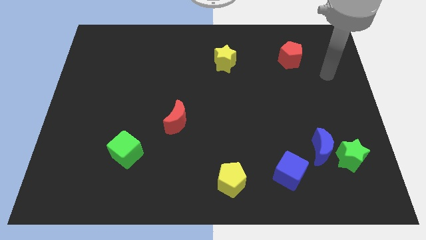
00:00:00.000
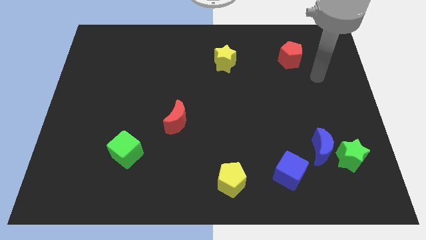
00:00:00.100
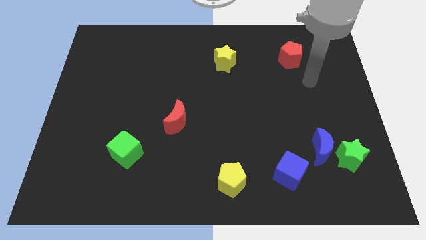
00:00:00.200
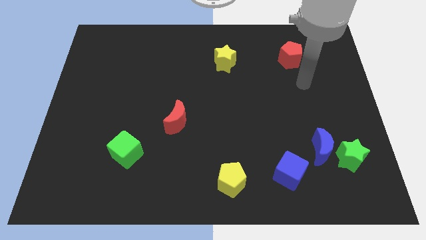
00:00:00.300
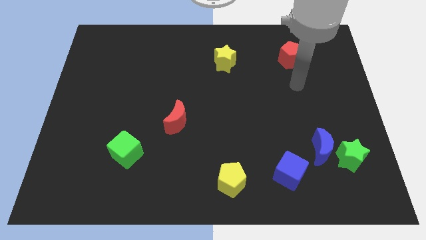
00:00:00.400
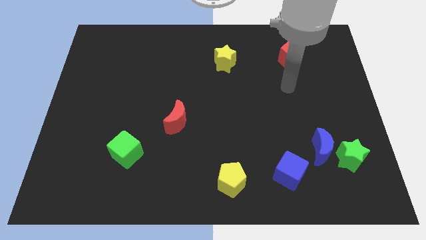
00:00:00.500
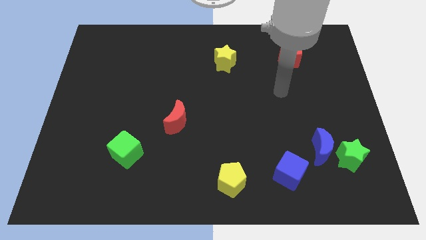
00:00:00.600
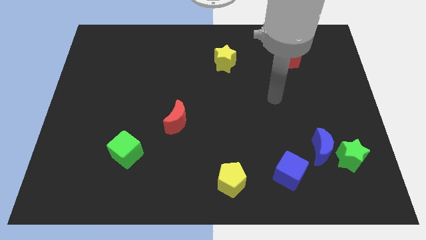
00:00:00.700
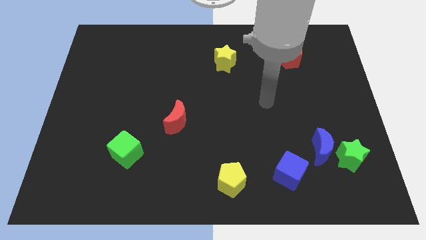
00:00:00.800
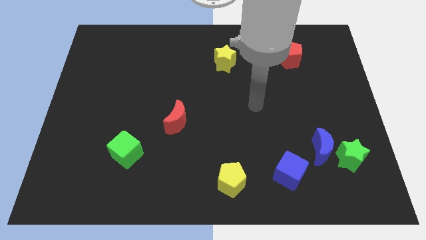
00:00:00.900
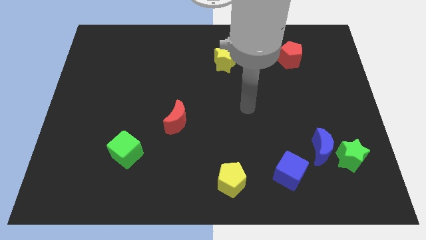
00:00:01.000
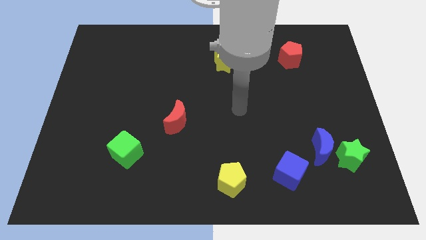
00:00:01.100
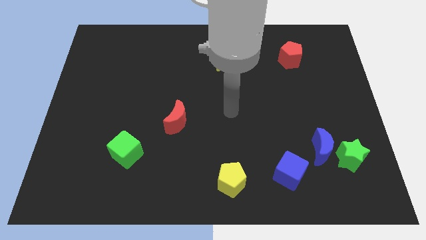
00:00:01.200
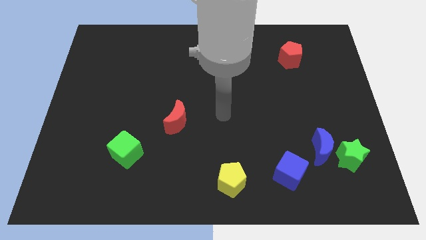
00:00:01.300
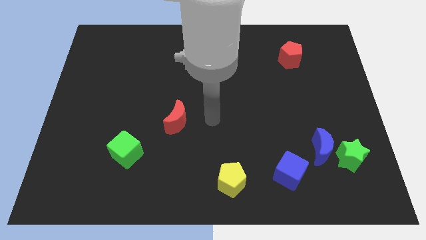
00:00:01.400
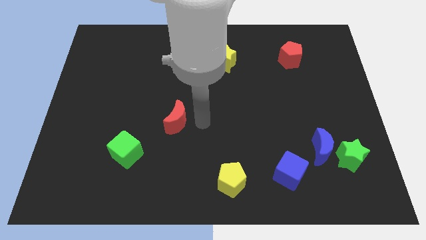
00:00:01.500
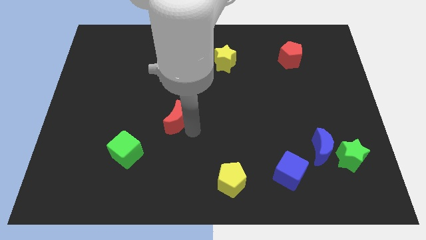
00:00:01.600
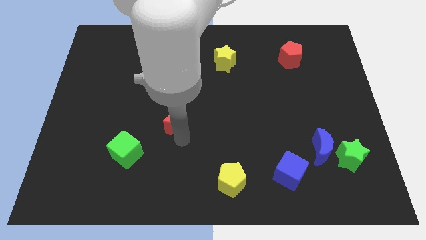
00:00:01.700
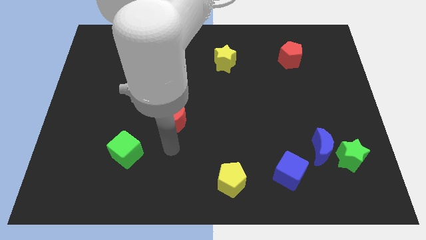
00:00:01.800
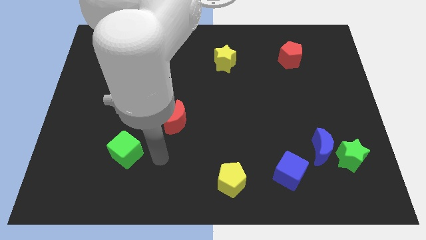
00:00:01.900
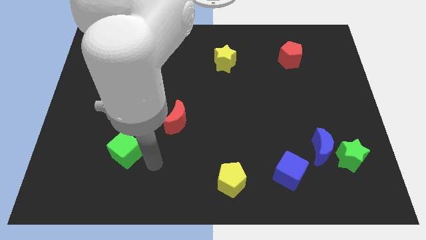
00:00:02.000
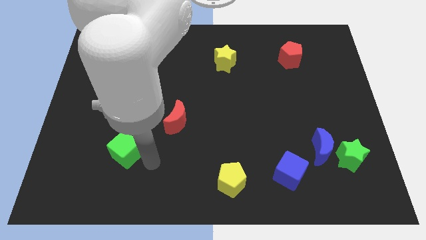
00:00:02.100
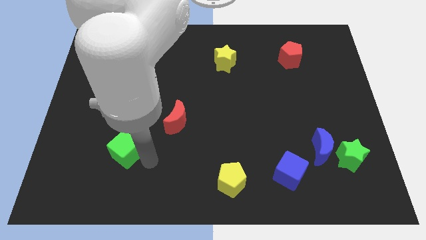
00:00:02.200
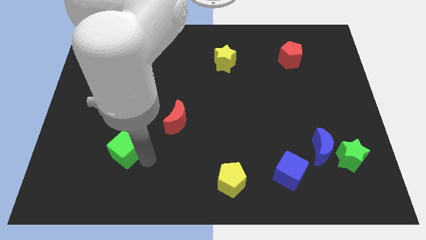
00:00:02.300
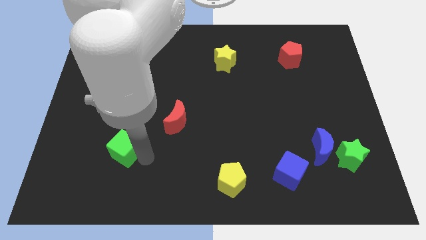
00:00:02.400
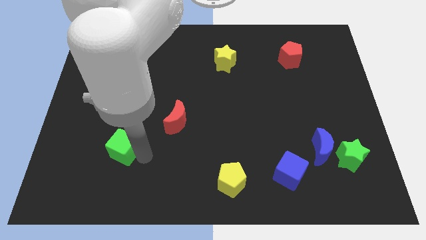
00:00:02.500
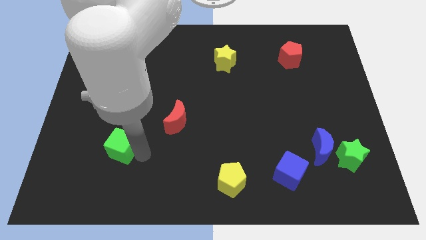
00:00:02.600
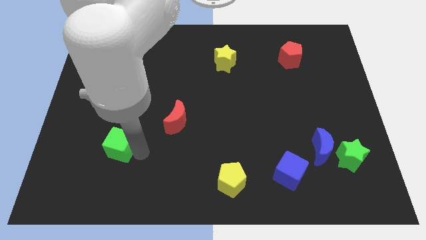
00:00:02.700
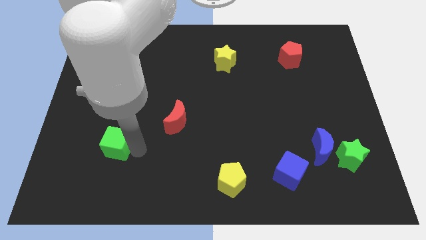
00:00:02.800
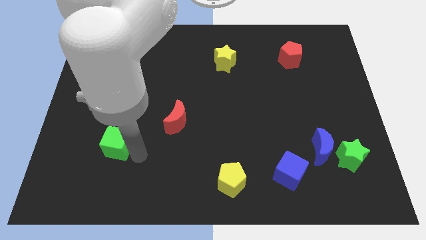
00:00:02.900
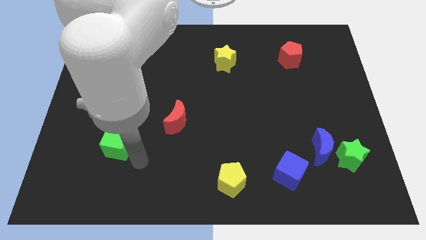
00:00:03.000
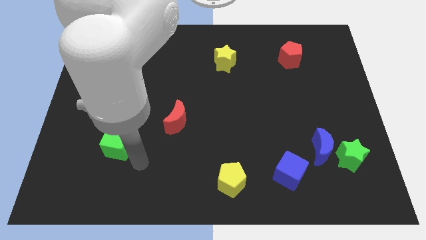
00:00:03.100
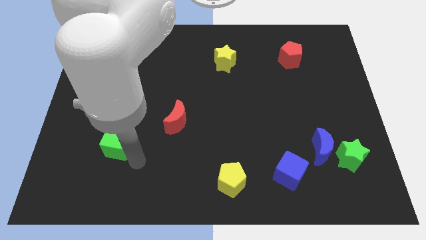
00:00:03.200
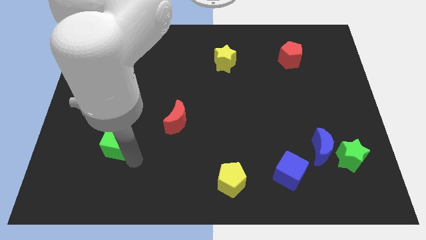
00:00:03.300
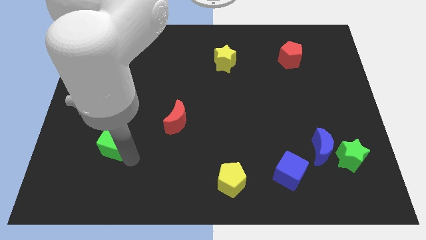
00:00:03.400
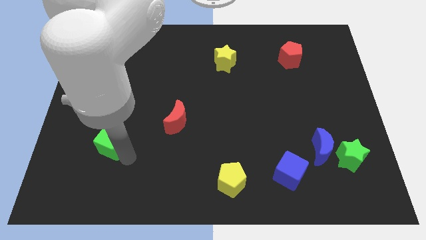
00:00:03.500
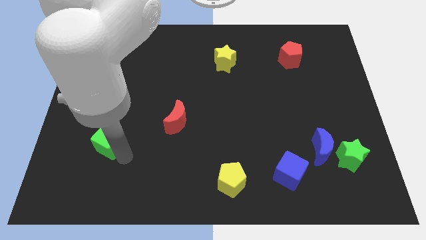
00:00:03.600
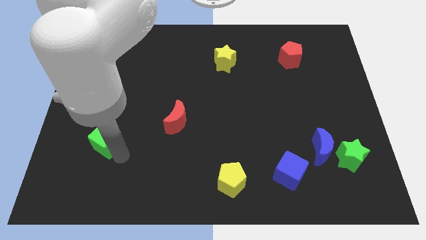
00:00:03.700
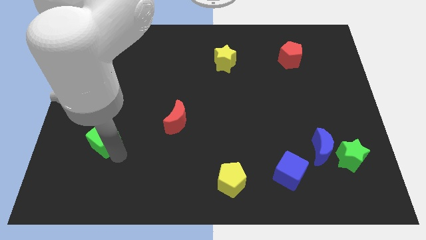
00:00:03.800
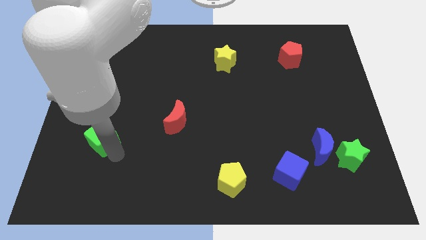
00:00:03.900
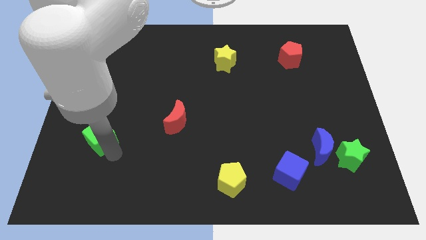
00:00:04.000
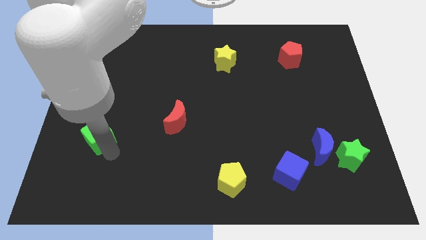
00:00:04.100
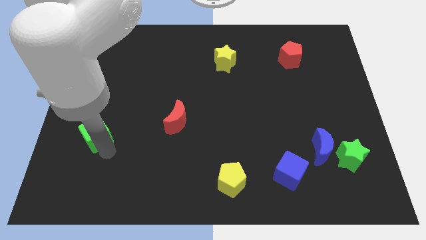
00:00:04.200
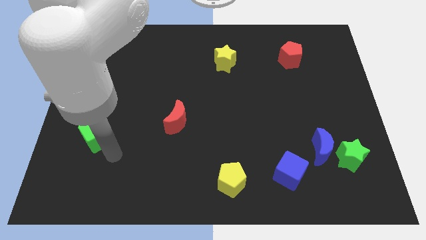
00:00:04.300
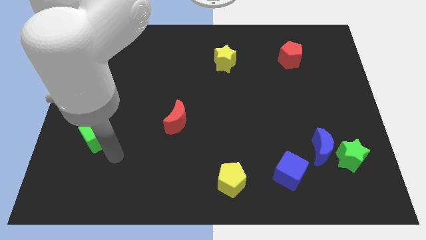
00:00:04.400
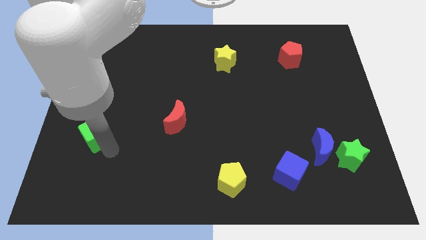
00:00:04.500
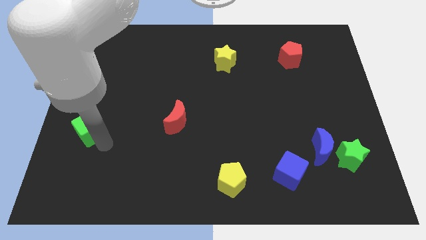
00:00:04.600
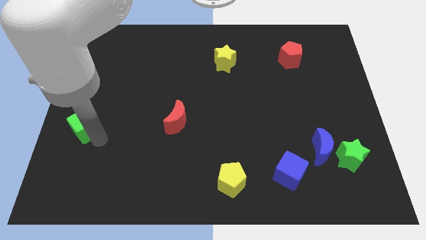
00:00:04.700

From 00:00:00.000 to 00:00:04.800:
slide the green cube to the left side

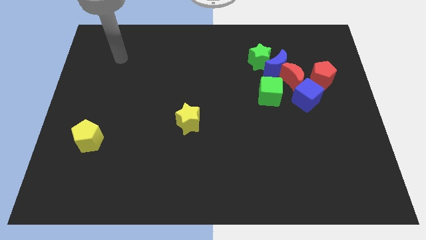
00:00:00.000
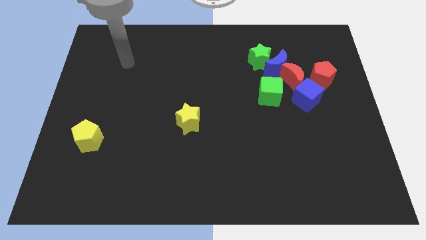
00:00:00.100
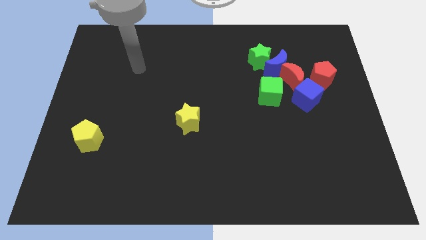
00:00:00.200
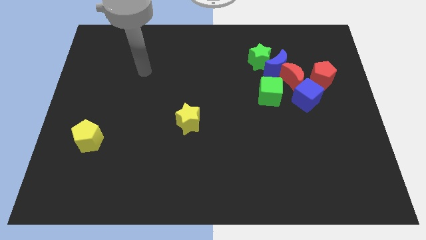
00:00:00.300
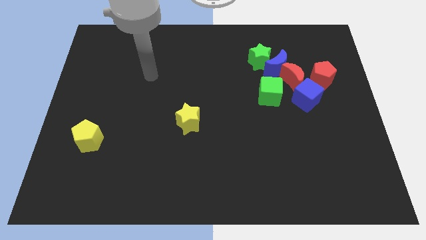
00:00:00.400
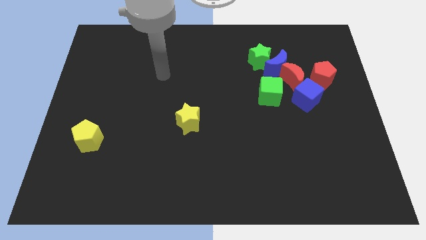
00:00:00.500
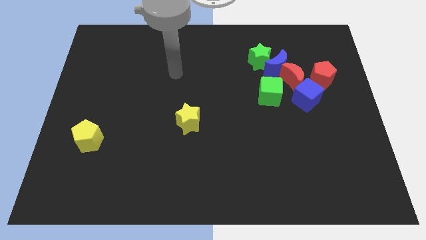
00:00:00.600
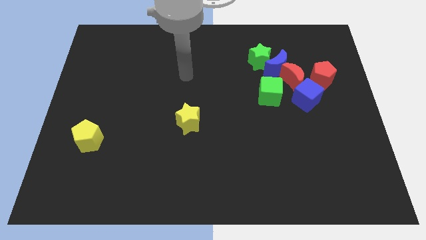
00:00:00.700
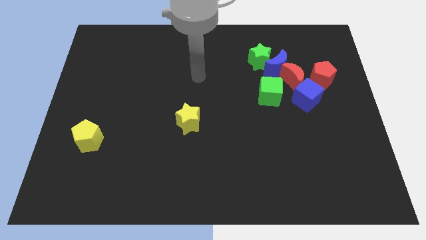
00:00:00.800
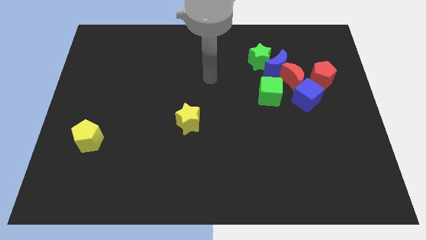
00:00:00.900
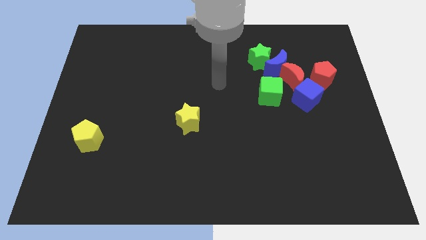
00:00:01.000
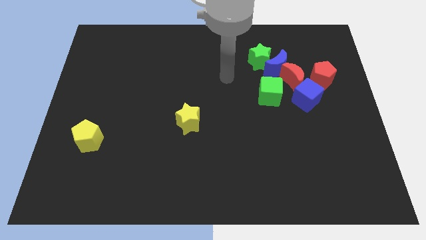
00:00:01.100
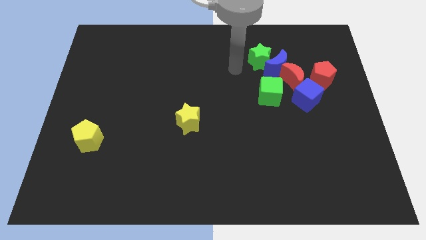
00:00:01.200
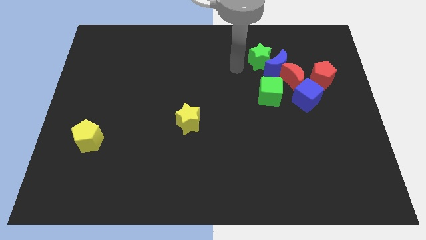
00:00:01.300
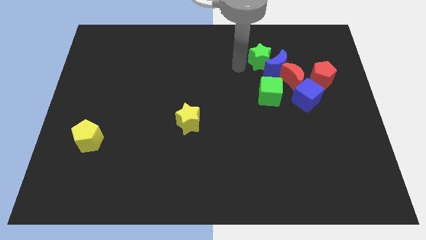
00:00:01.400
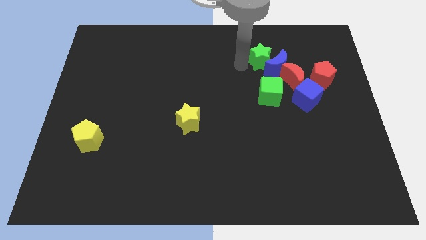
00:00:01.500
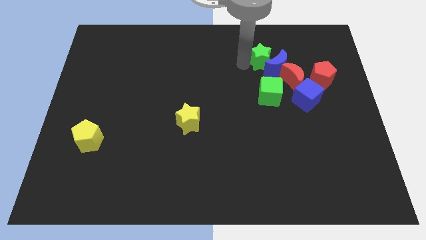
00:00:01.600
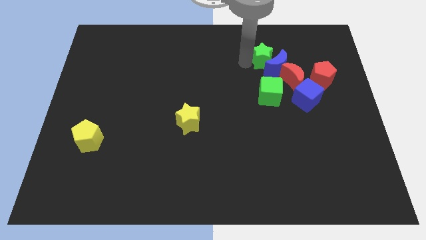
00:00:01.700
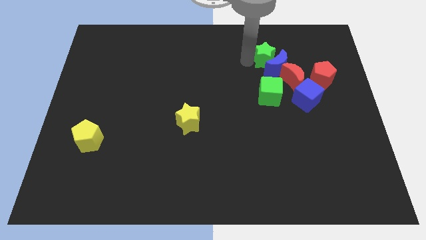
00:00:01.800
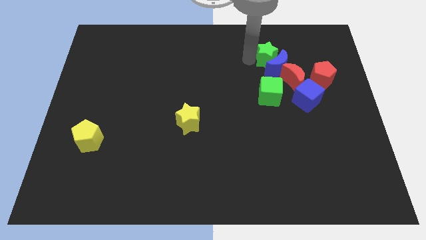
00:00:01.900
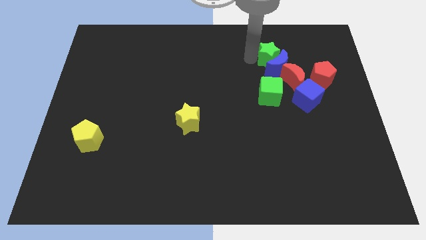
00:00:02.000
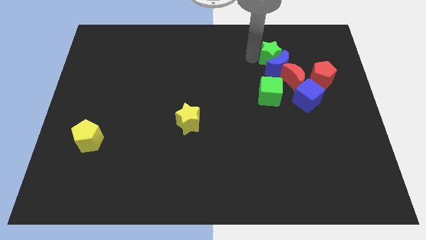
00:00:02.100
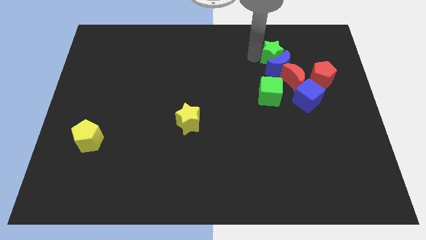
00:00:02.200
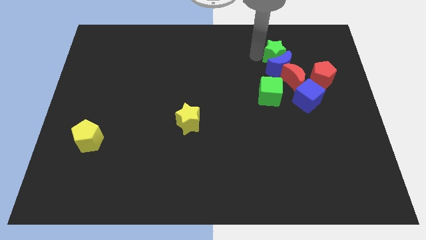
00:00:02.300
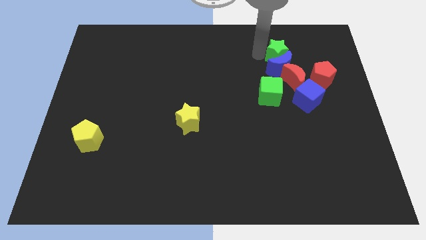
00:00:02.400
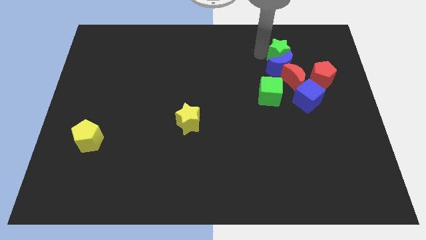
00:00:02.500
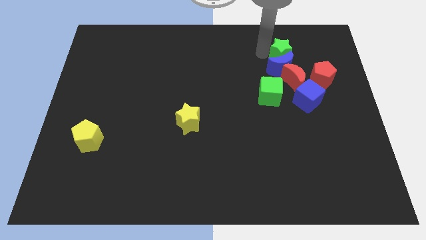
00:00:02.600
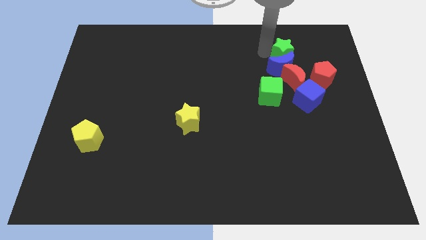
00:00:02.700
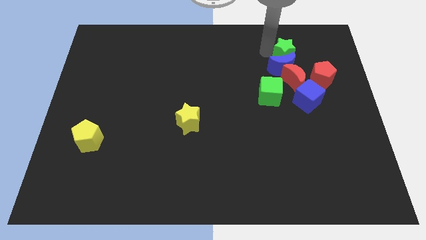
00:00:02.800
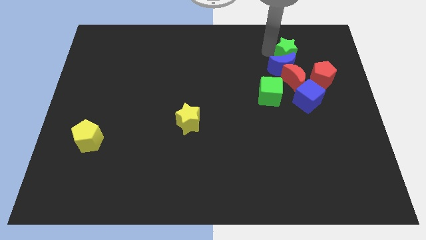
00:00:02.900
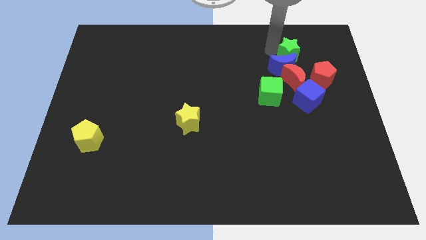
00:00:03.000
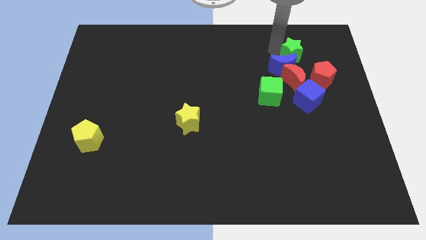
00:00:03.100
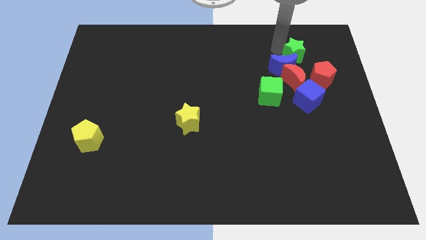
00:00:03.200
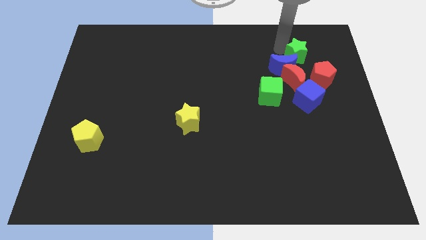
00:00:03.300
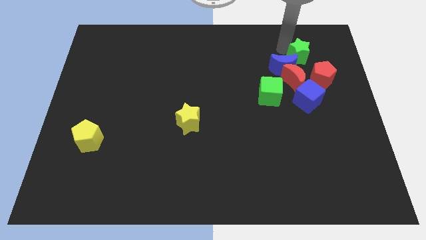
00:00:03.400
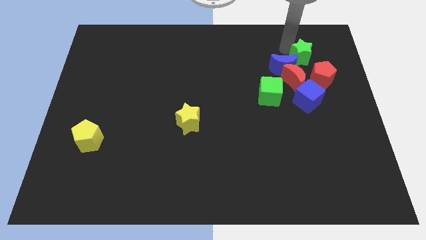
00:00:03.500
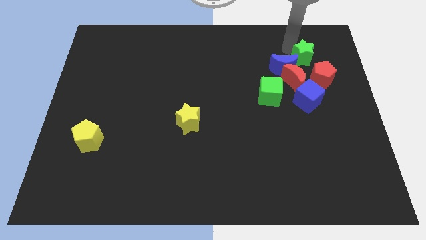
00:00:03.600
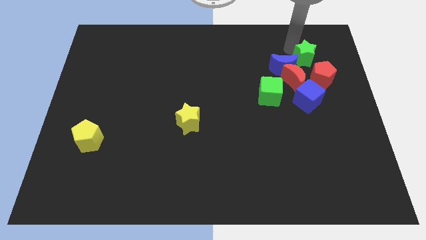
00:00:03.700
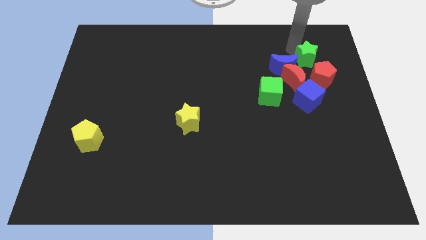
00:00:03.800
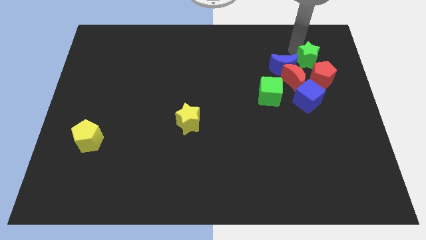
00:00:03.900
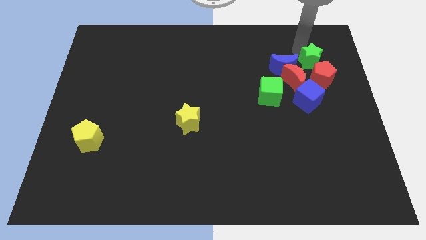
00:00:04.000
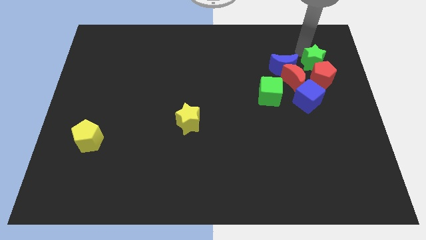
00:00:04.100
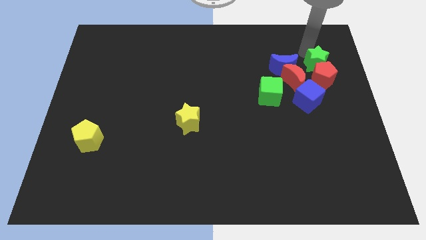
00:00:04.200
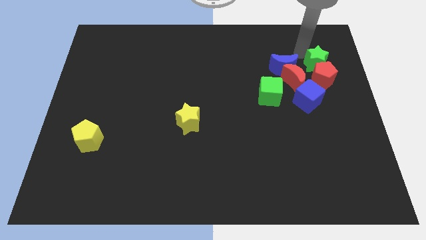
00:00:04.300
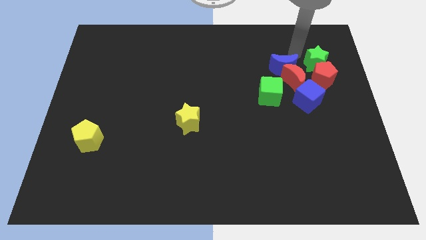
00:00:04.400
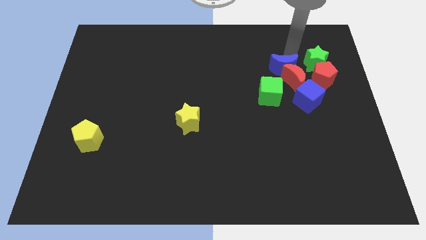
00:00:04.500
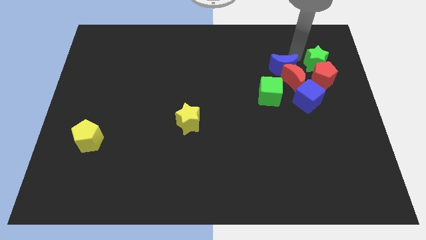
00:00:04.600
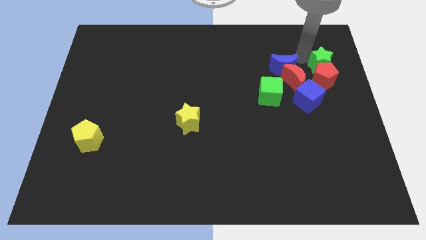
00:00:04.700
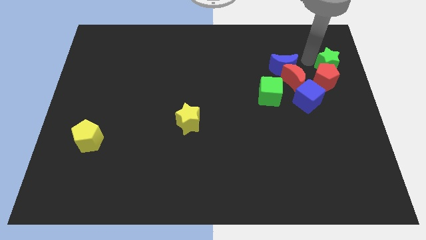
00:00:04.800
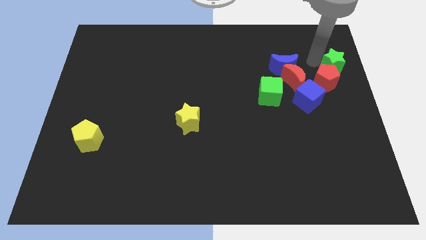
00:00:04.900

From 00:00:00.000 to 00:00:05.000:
move the green star to the right side of the board
